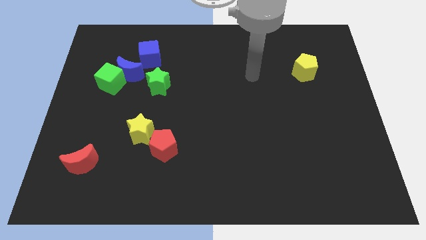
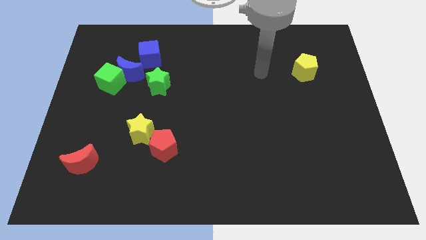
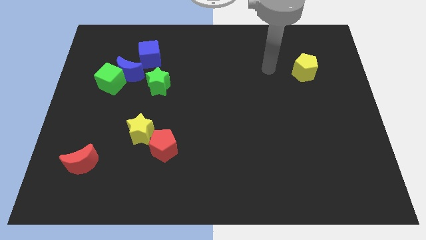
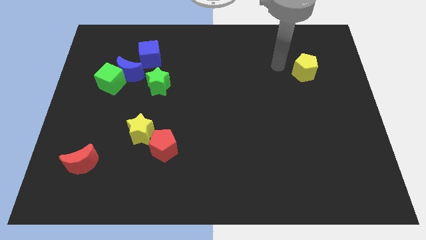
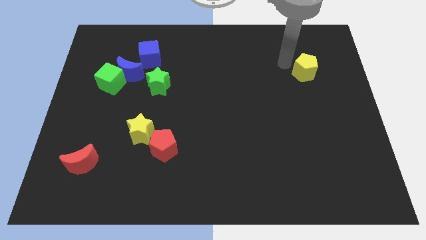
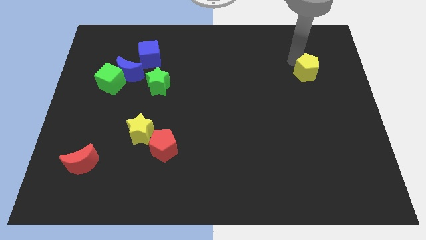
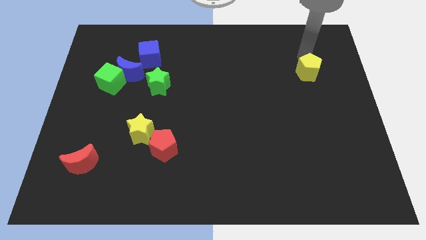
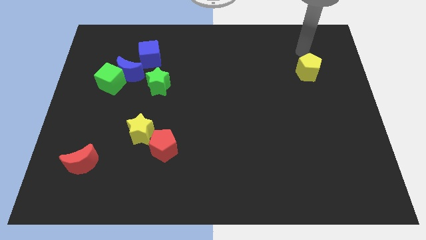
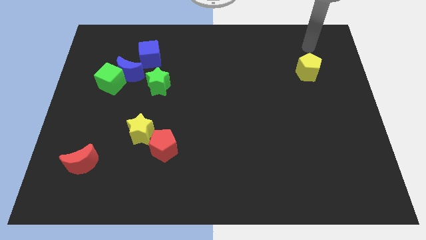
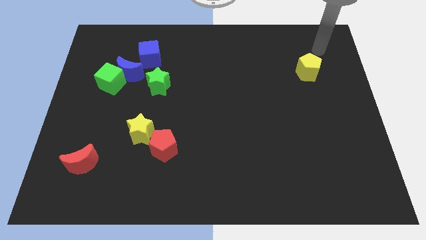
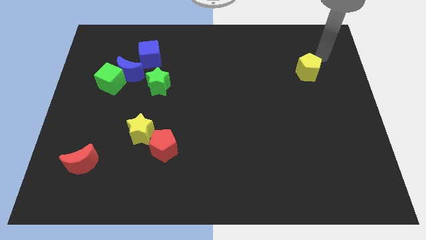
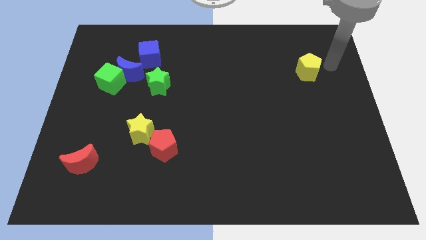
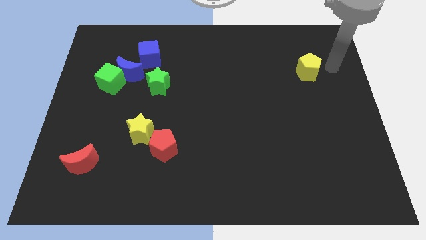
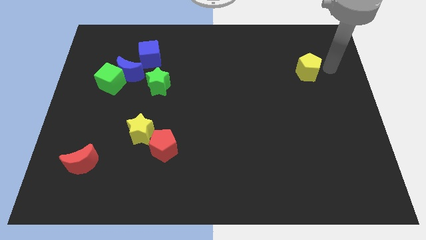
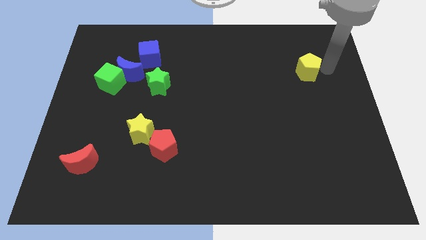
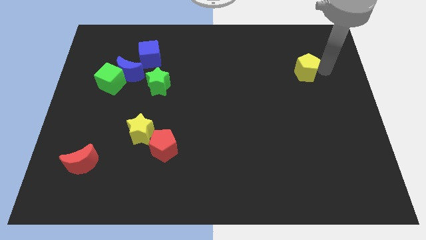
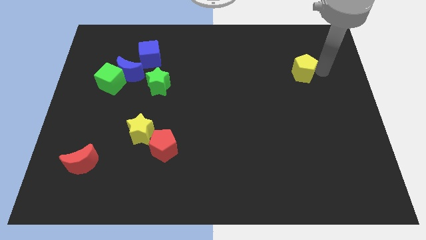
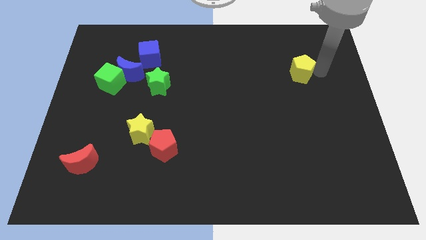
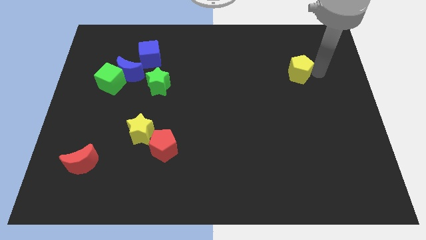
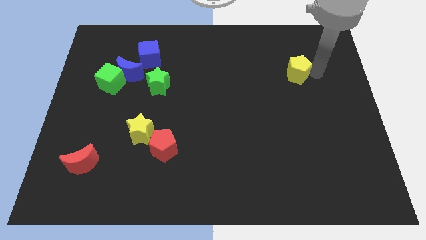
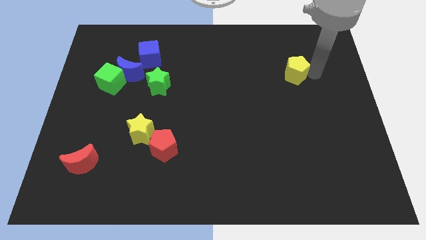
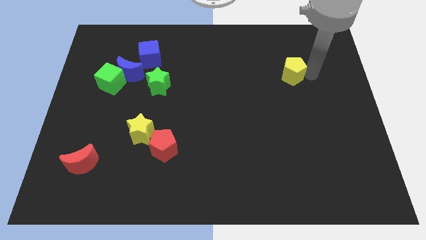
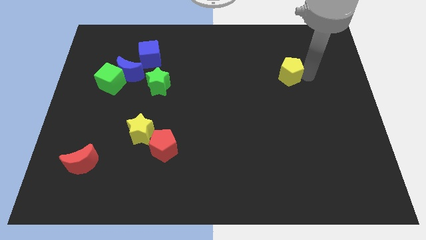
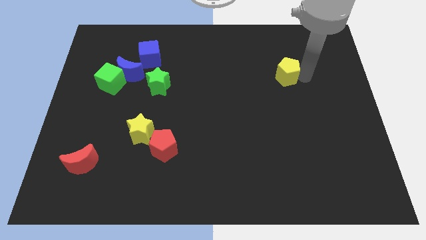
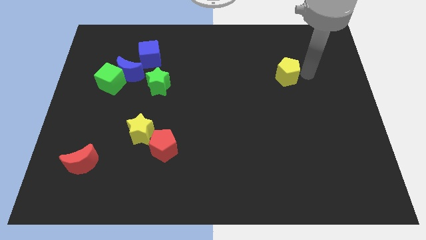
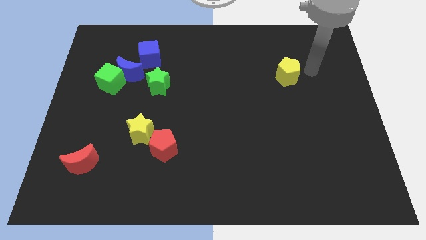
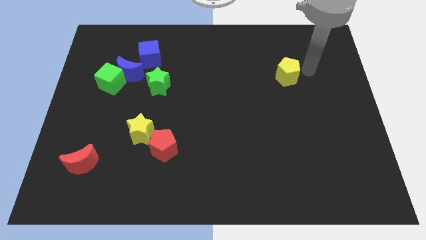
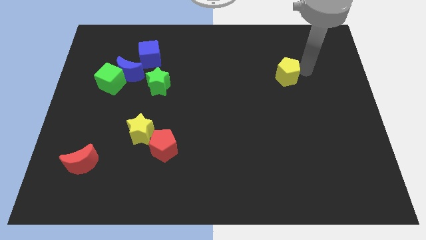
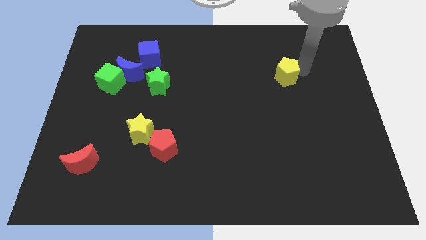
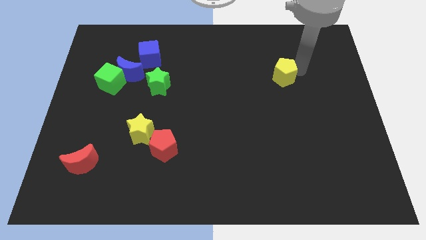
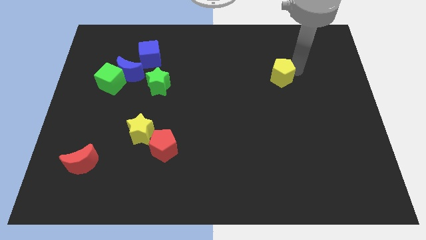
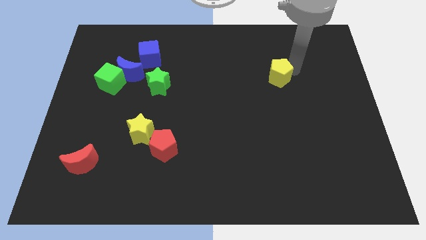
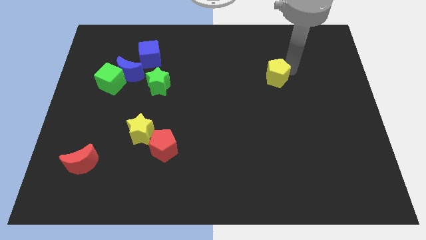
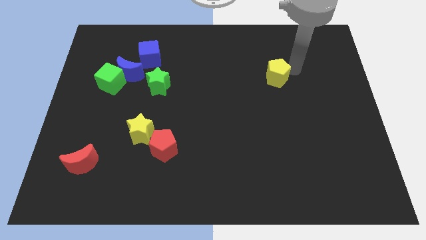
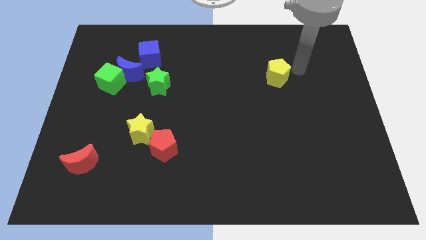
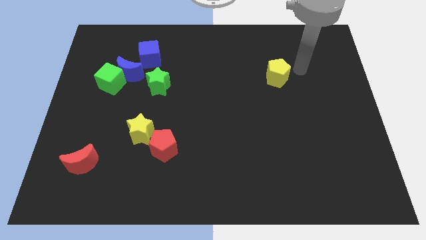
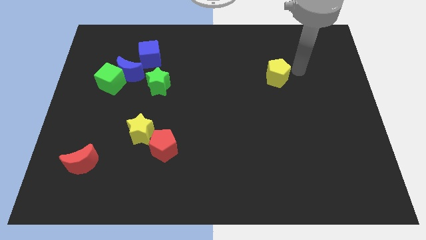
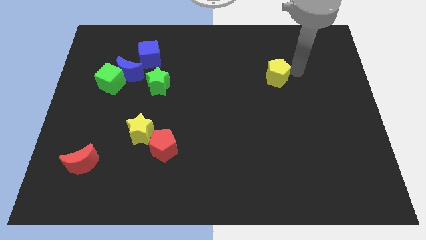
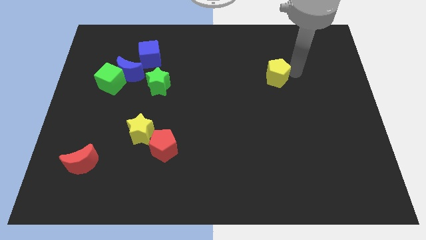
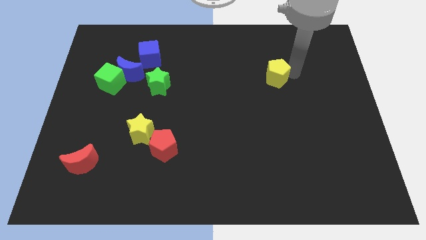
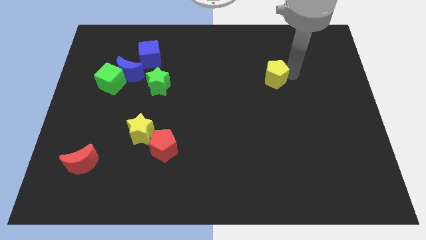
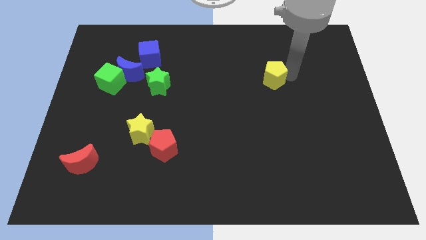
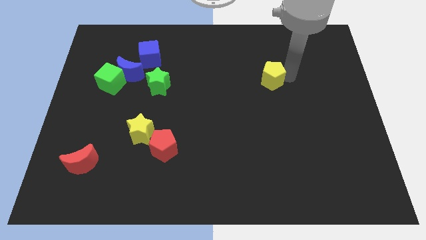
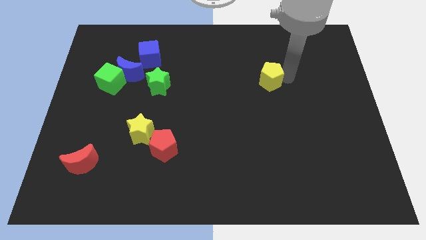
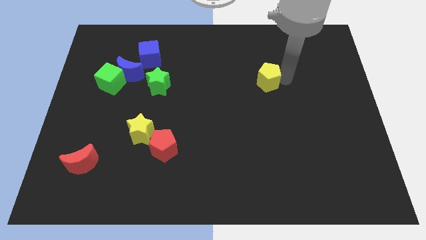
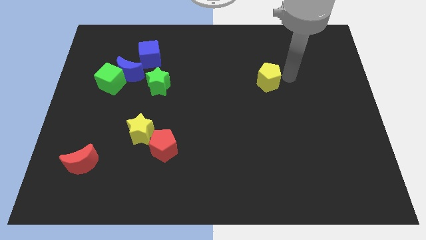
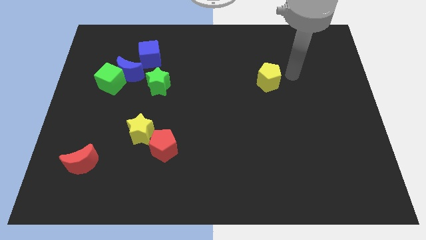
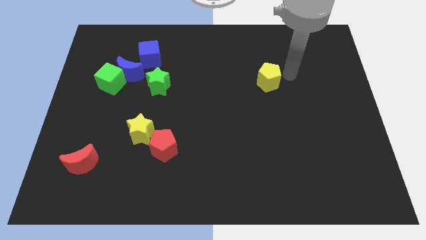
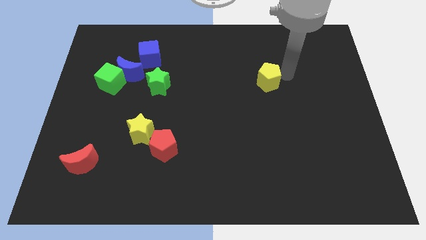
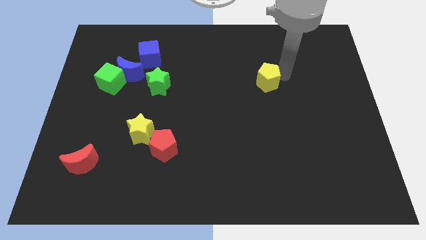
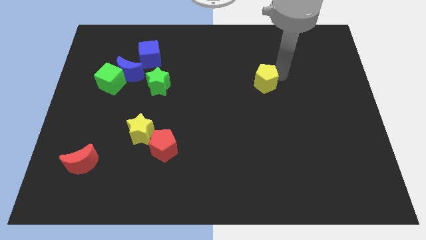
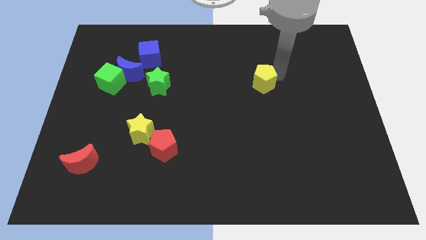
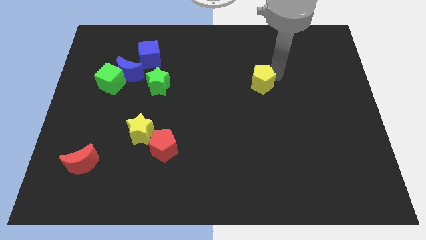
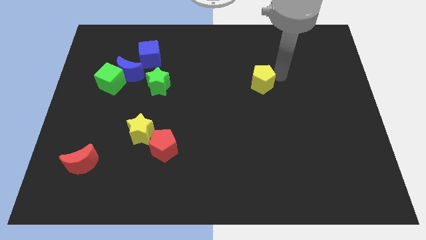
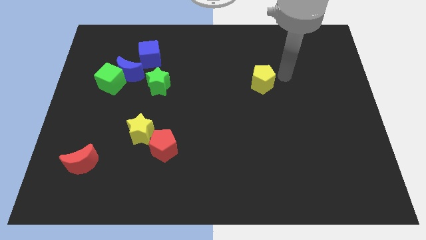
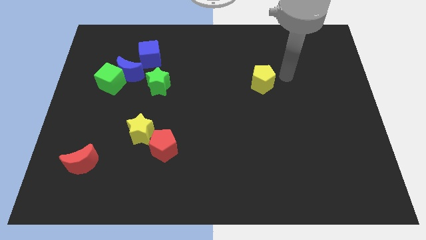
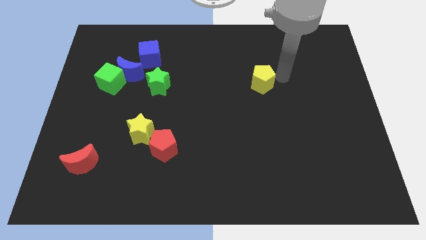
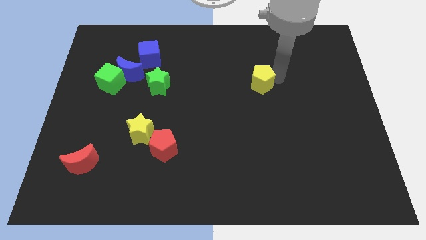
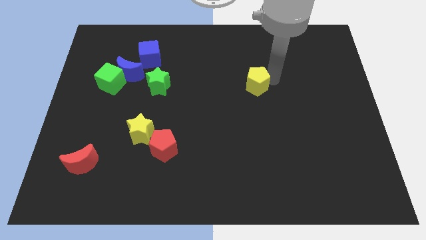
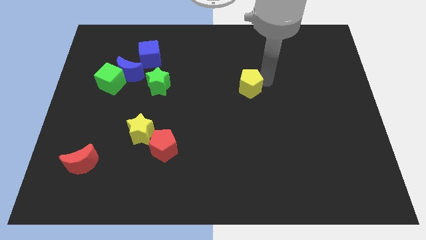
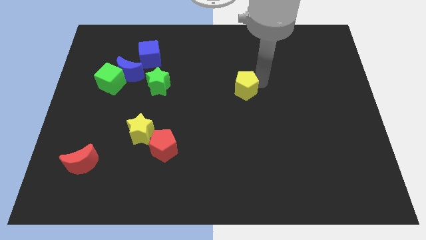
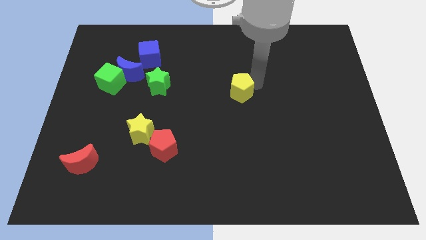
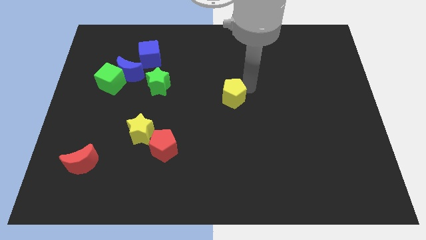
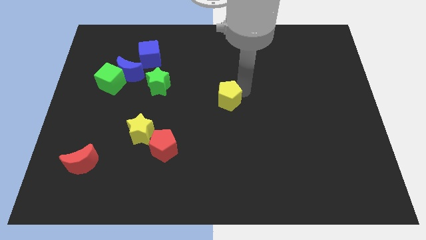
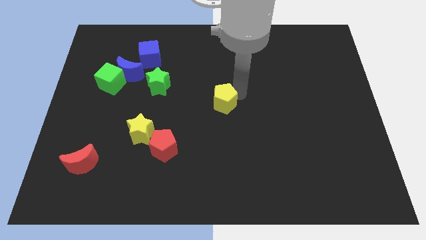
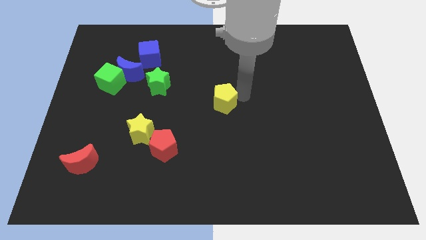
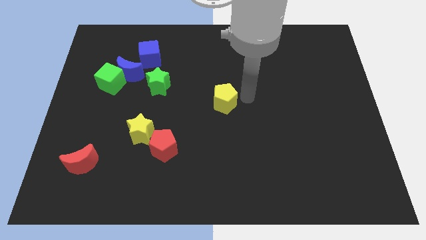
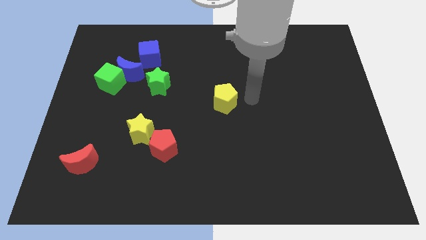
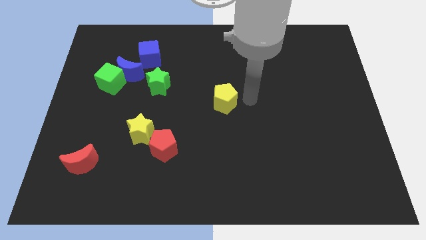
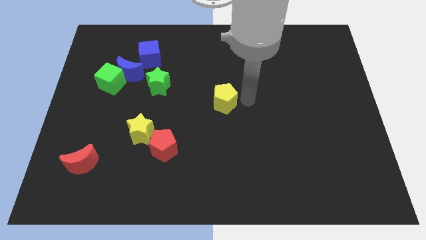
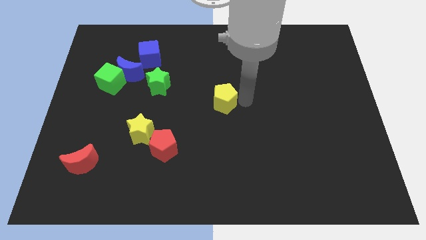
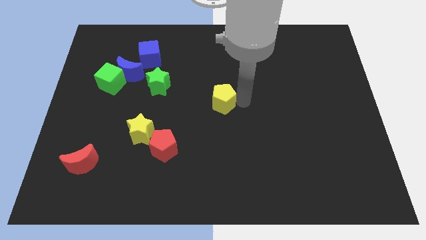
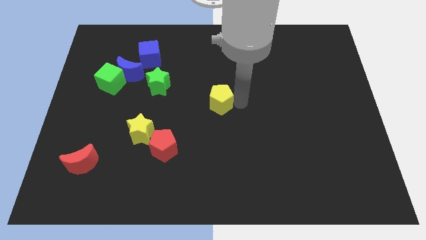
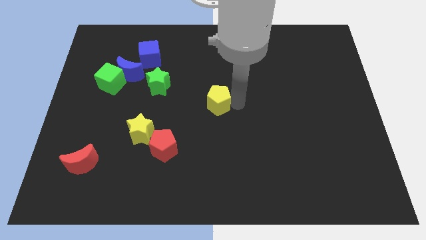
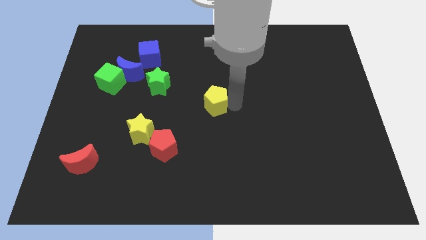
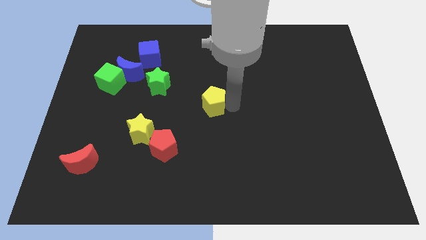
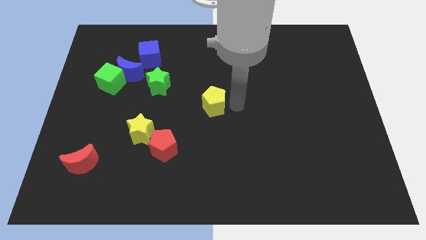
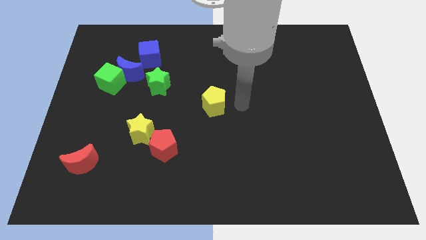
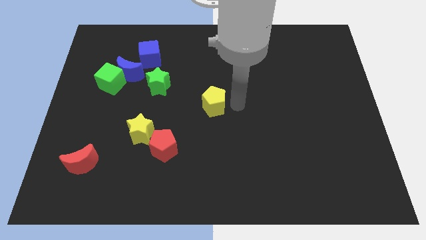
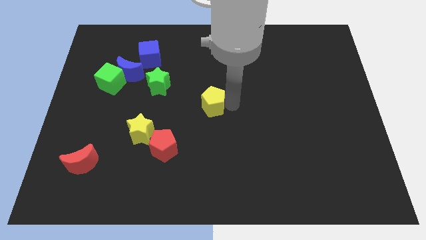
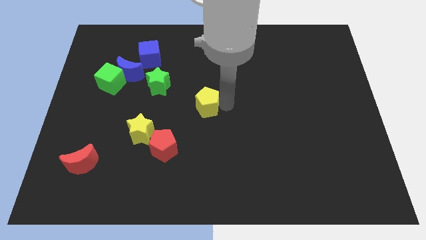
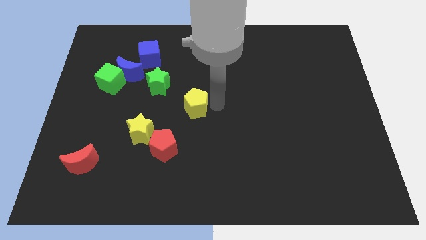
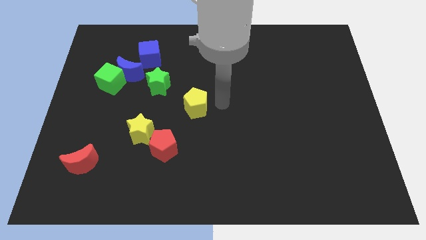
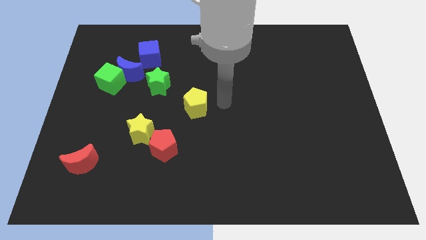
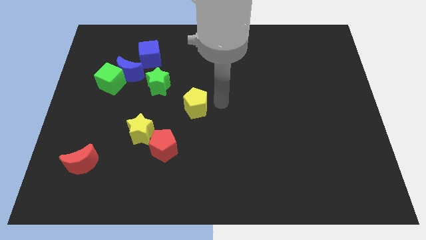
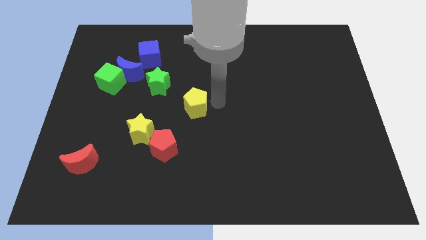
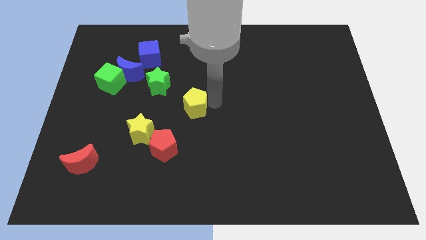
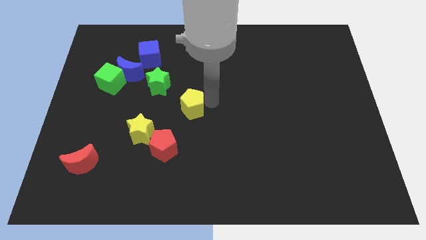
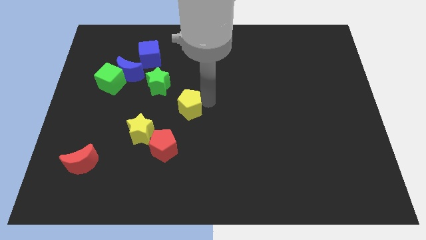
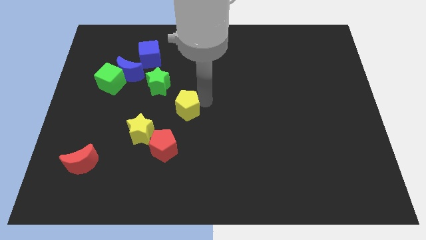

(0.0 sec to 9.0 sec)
slide the yellow pentagon to the top of the red pentagon
